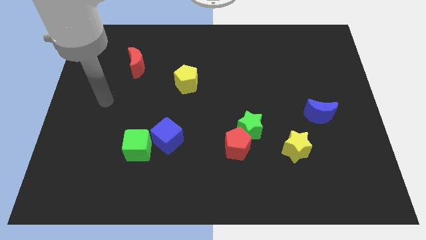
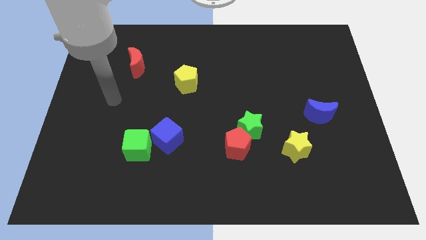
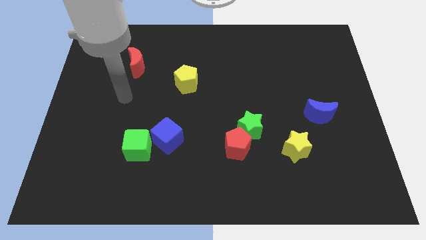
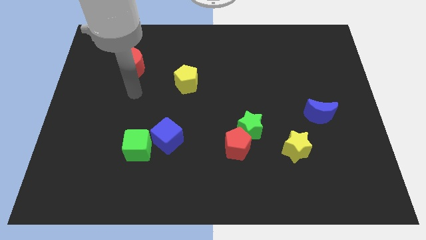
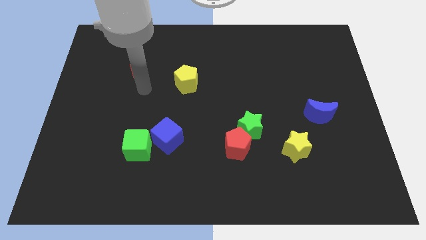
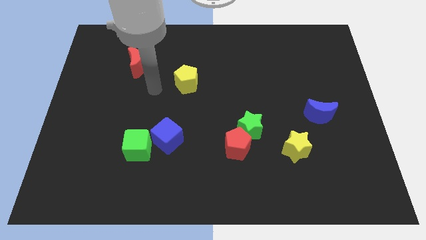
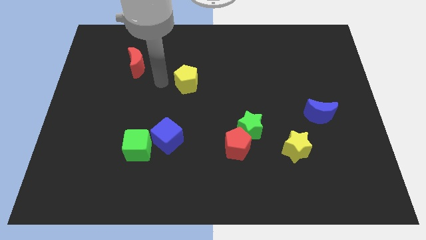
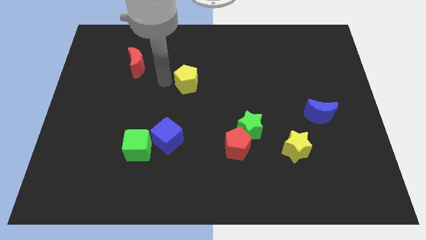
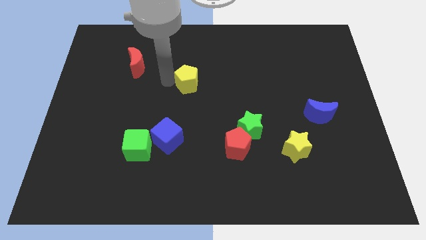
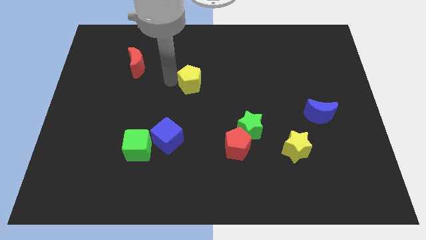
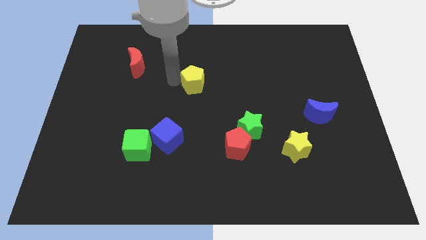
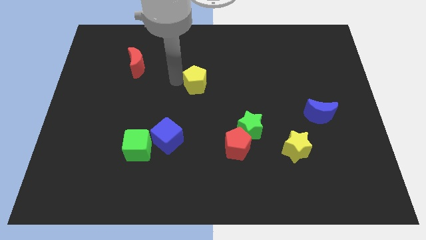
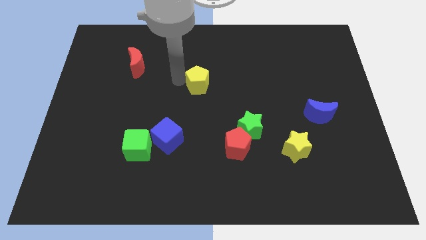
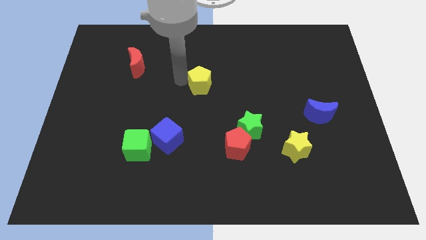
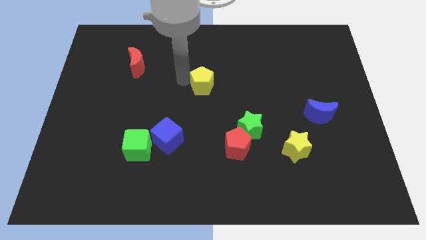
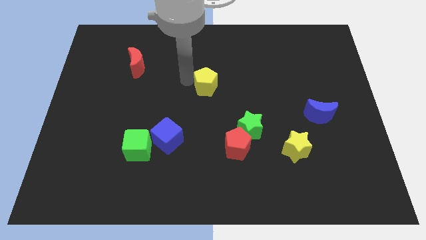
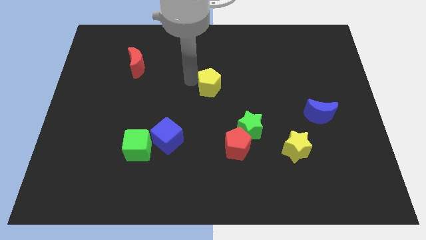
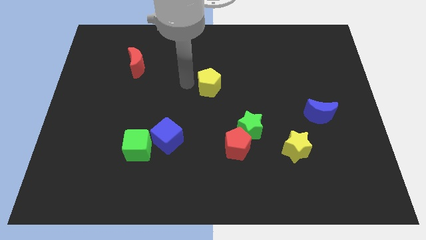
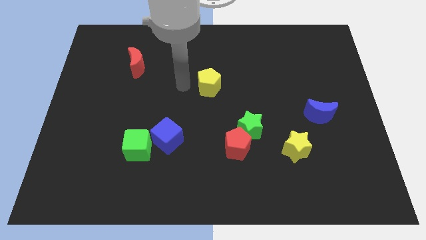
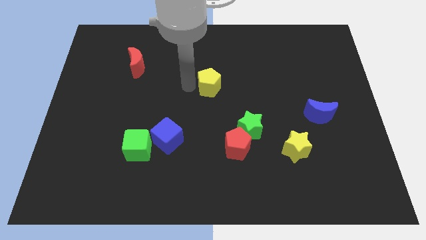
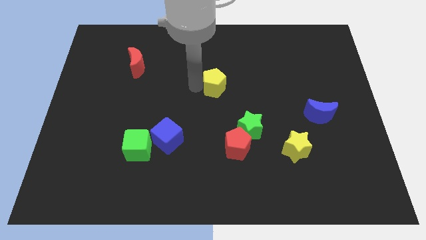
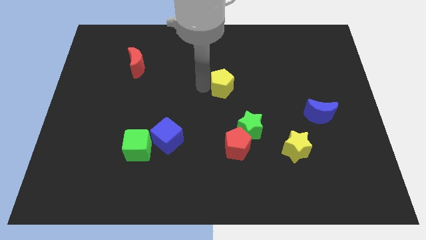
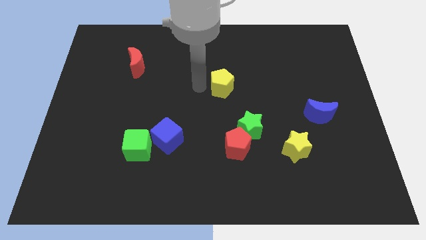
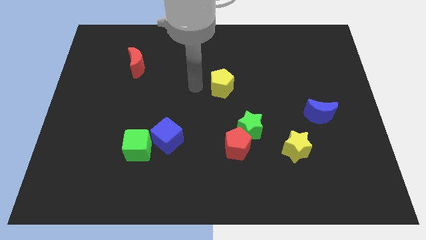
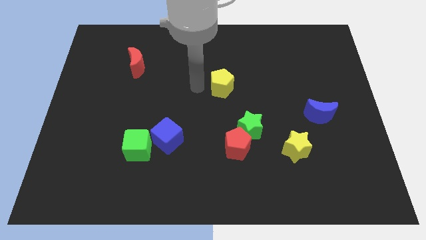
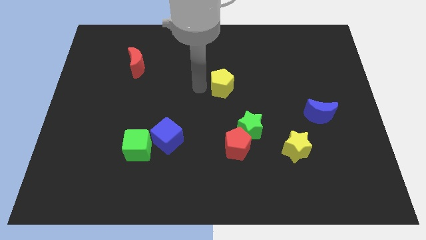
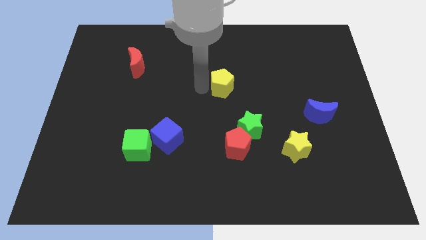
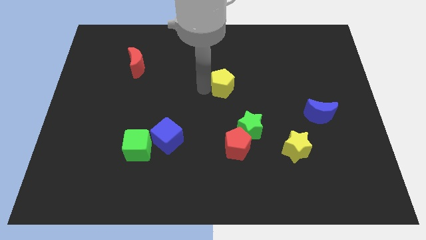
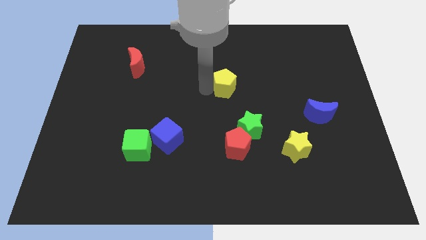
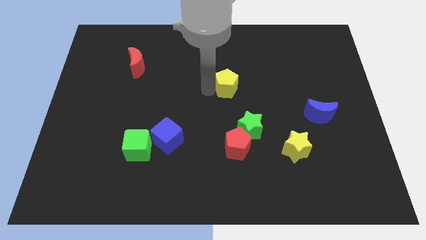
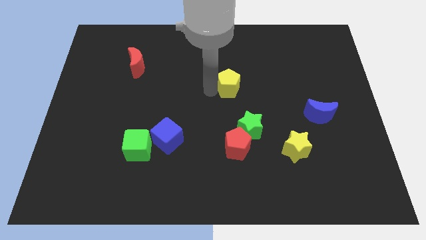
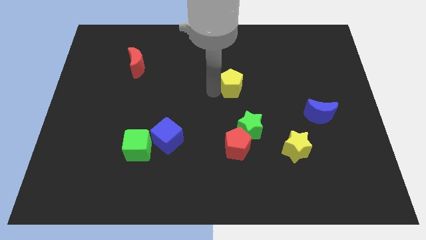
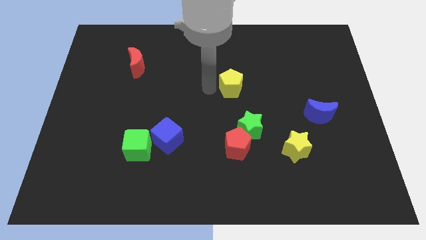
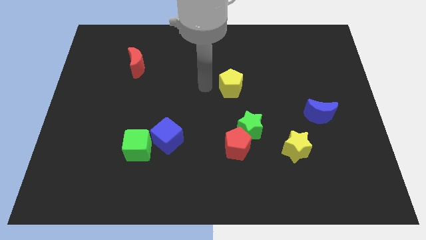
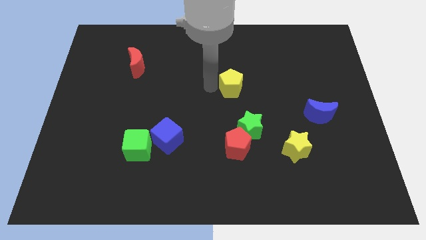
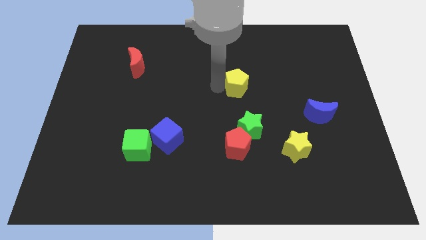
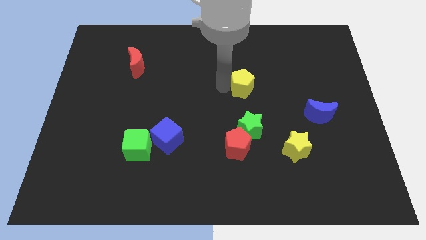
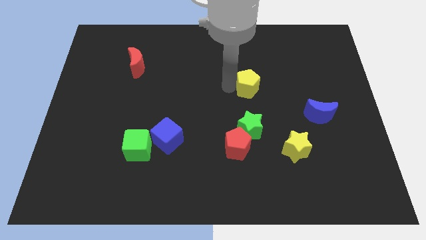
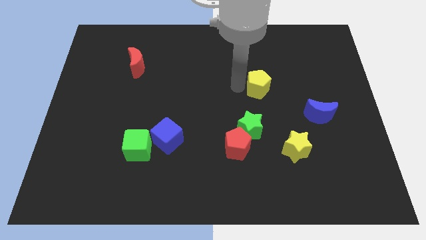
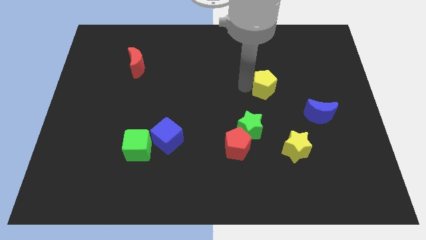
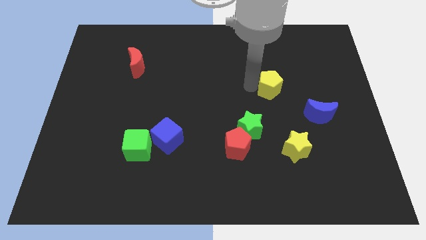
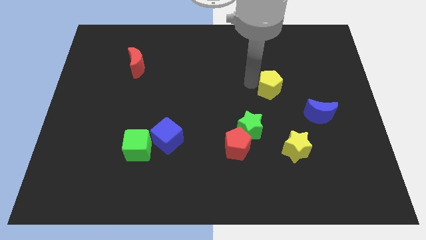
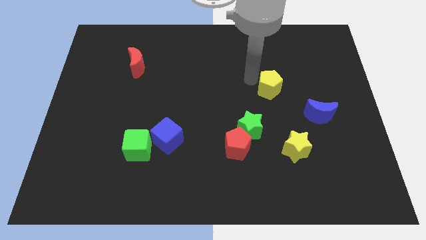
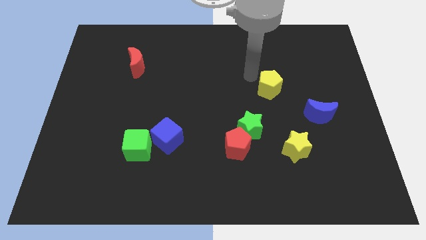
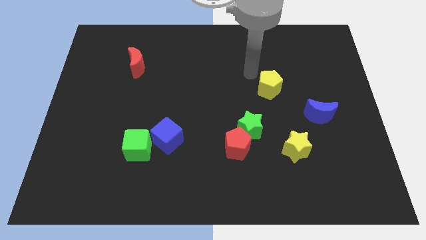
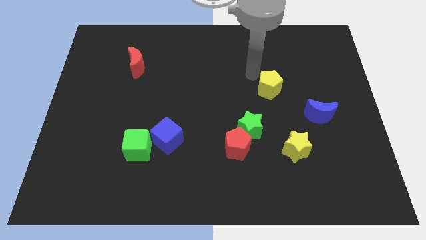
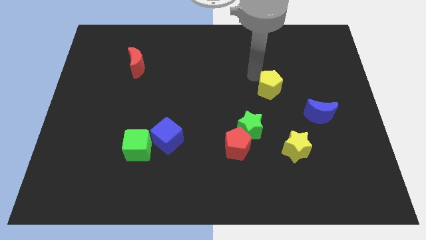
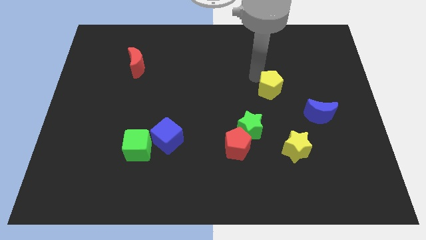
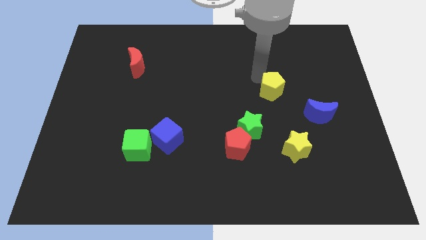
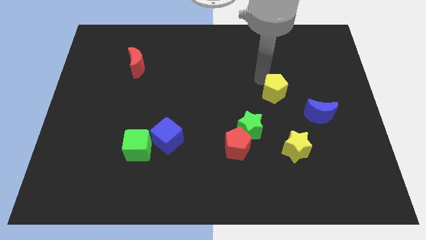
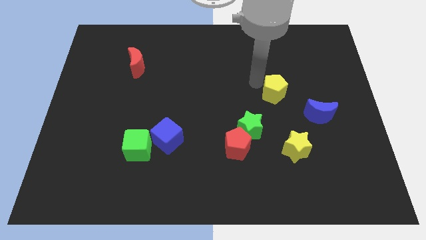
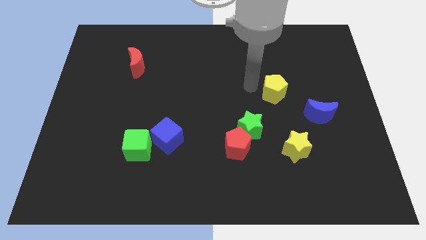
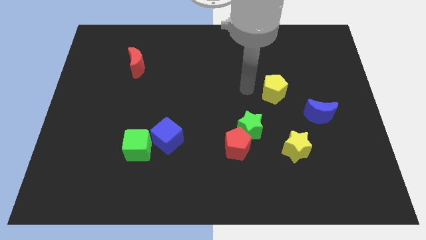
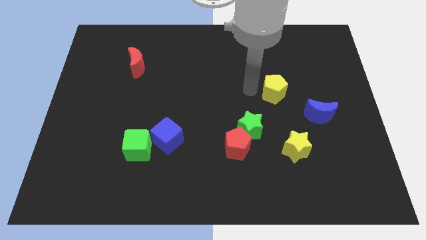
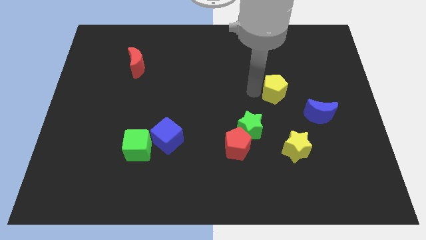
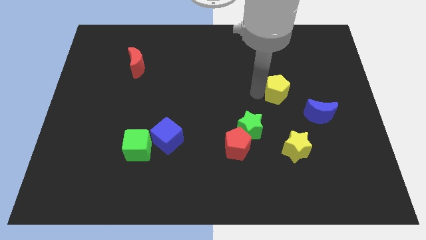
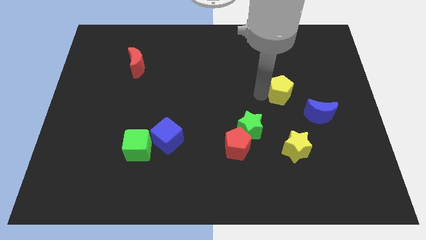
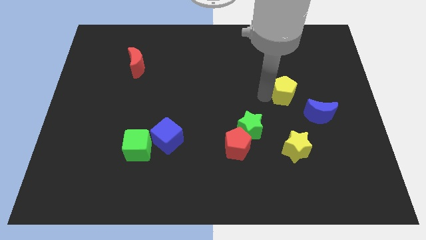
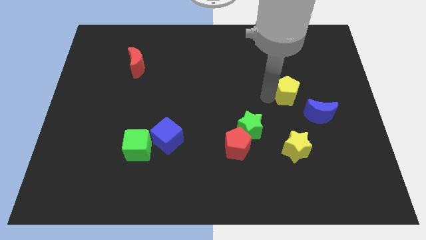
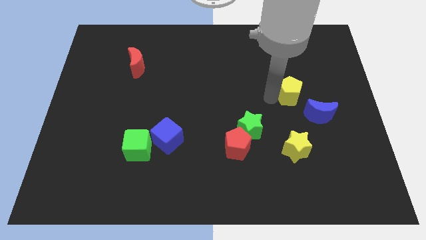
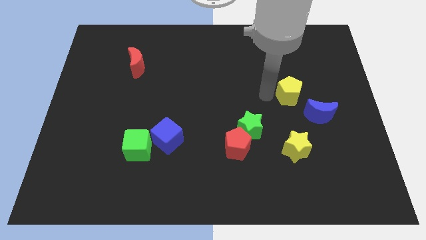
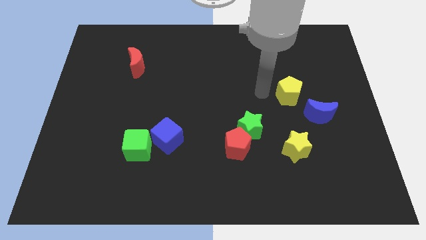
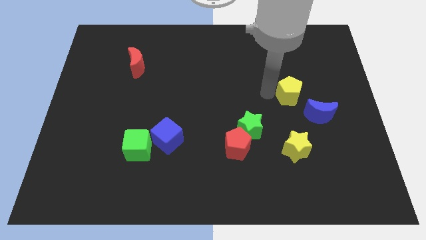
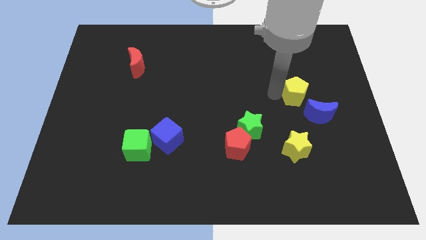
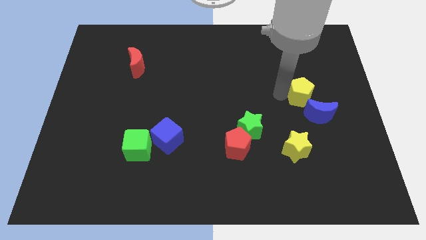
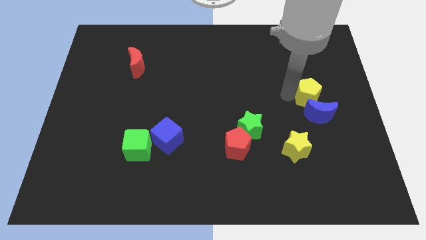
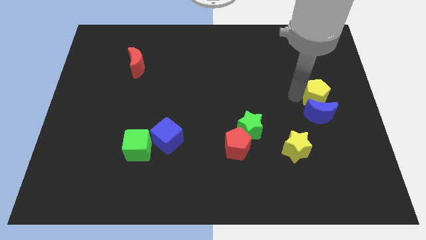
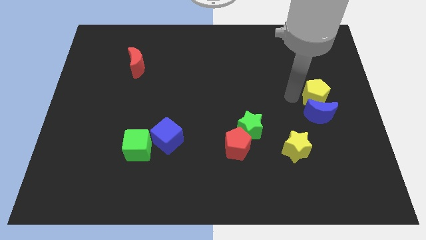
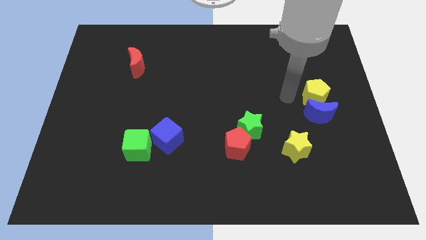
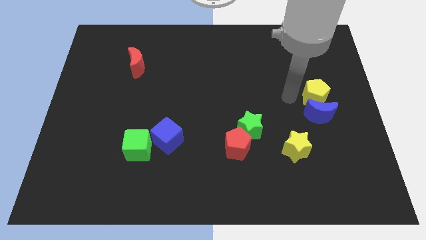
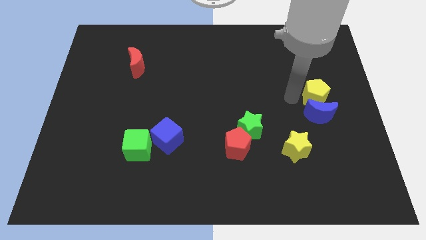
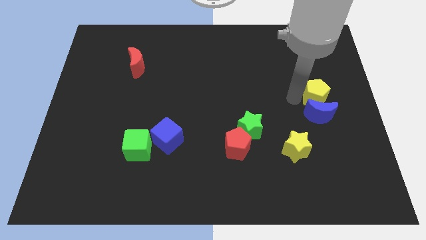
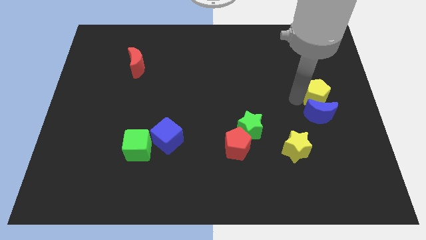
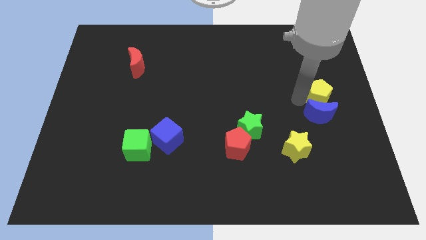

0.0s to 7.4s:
move the yellow pentagon to the right side
